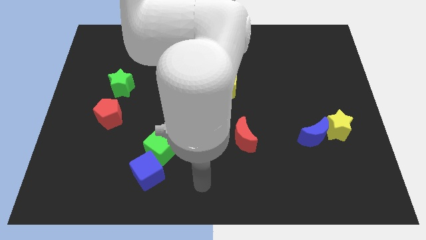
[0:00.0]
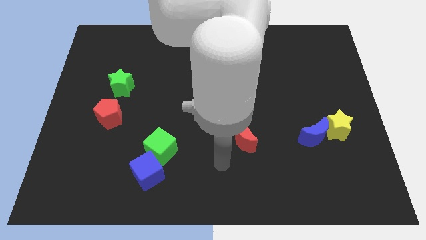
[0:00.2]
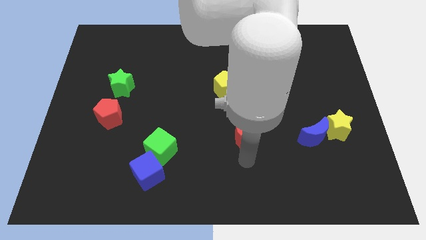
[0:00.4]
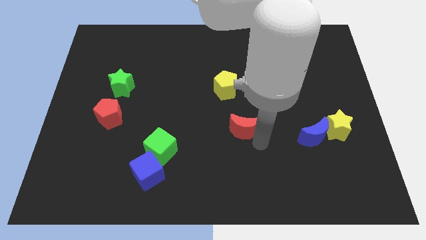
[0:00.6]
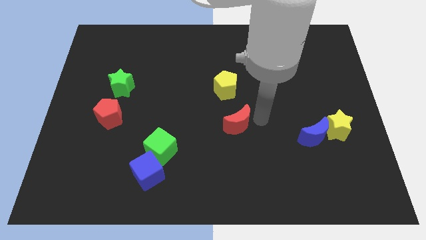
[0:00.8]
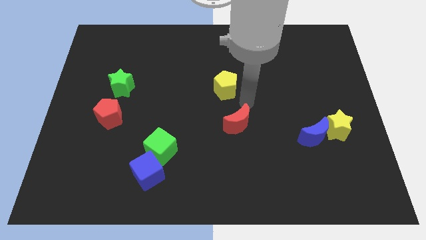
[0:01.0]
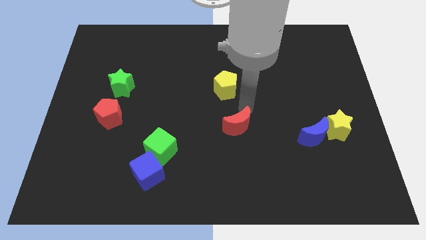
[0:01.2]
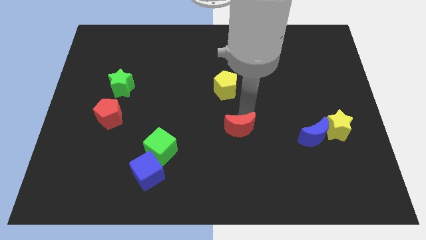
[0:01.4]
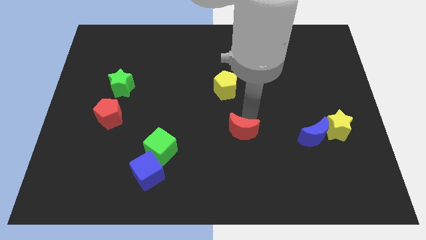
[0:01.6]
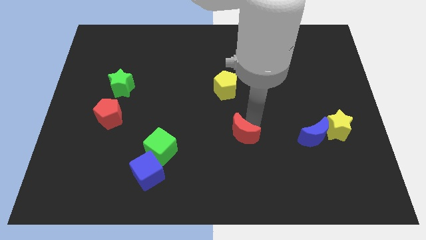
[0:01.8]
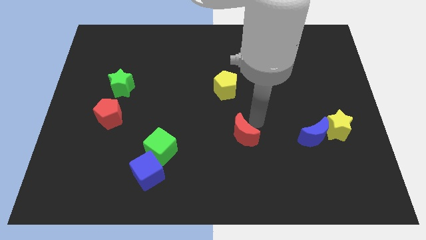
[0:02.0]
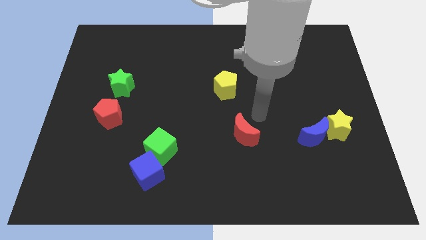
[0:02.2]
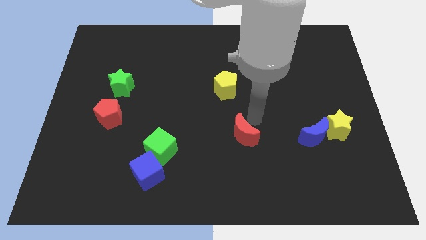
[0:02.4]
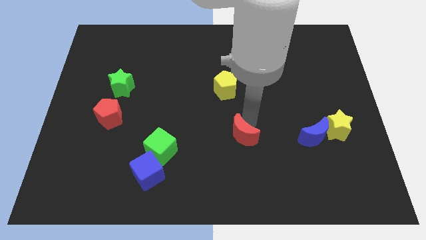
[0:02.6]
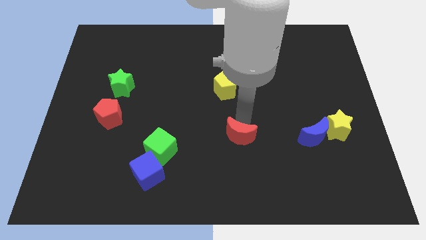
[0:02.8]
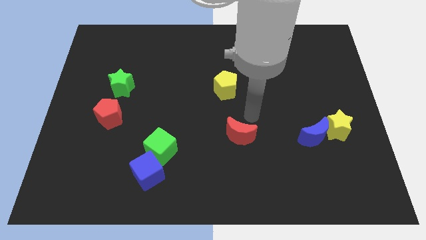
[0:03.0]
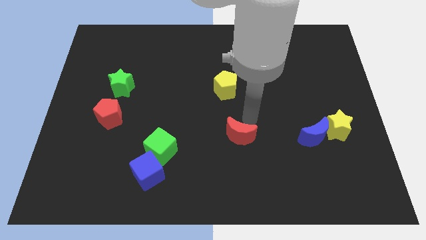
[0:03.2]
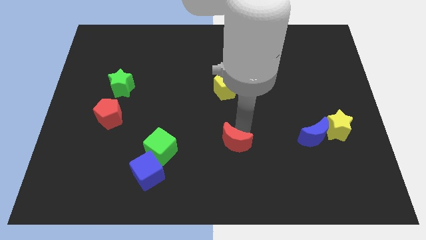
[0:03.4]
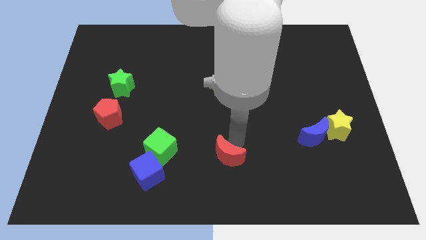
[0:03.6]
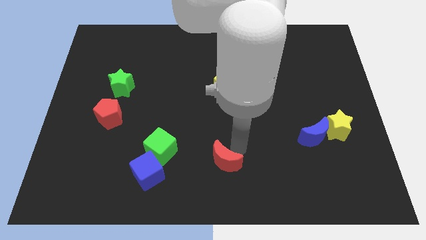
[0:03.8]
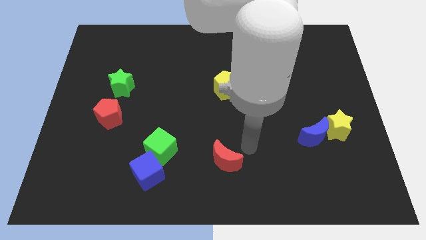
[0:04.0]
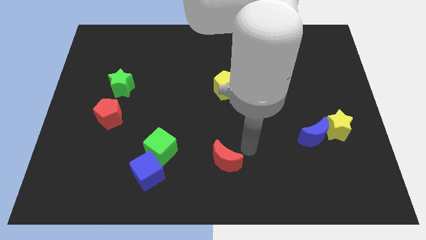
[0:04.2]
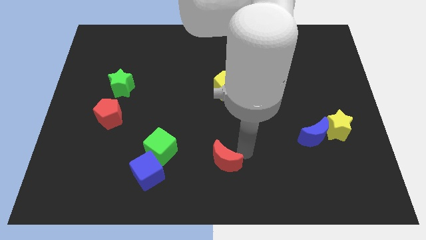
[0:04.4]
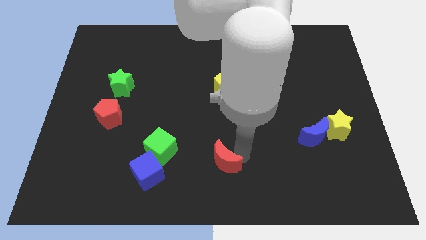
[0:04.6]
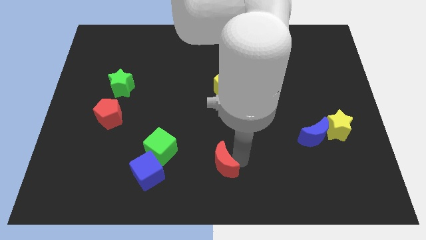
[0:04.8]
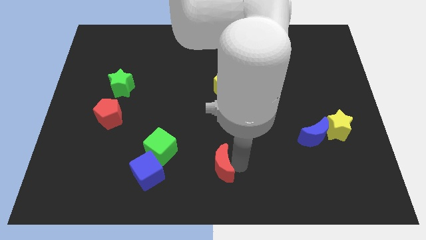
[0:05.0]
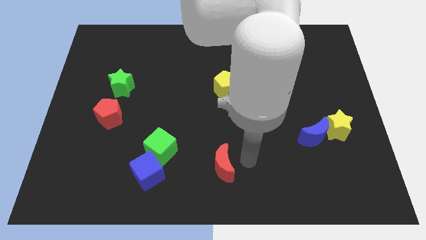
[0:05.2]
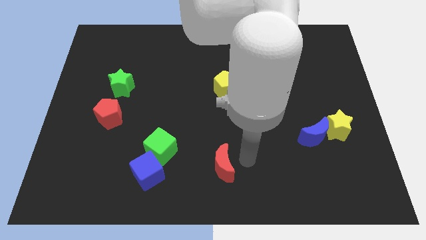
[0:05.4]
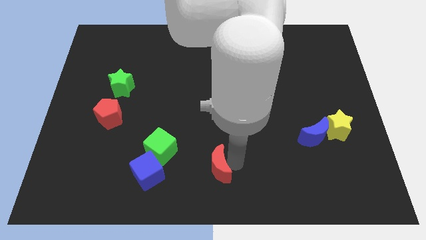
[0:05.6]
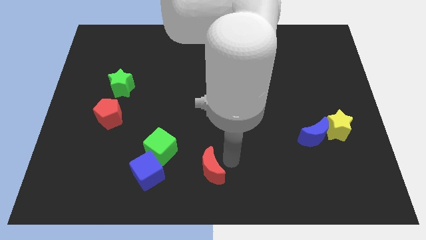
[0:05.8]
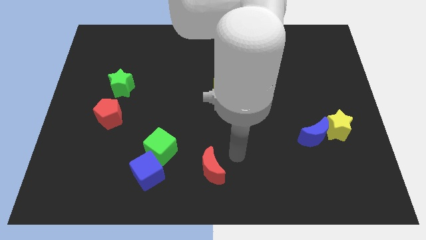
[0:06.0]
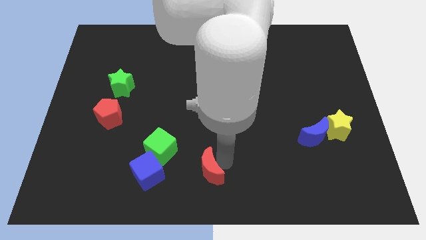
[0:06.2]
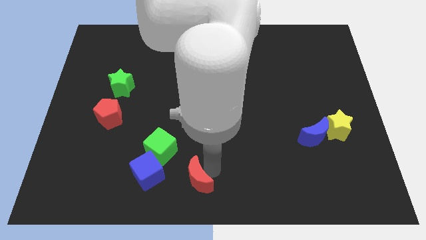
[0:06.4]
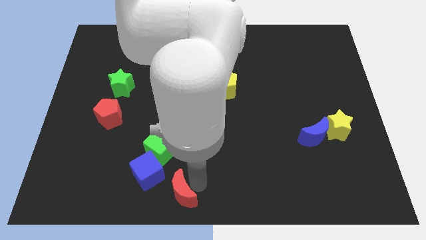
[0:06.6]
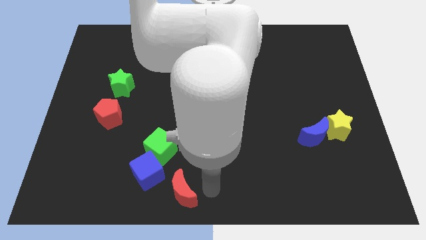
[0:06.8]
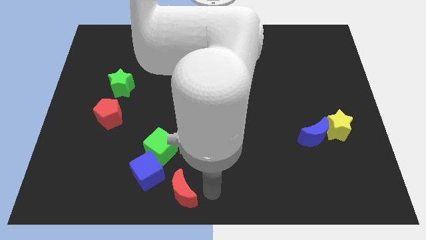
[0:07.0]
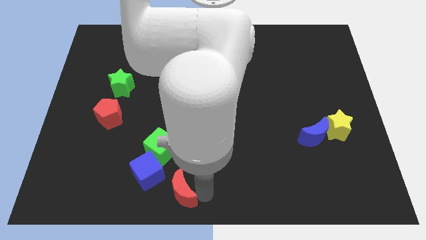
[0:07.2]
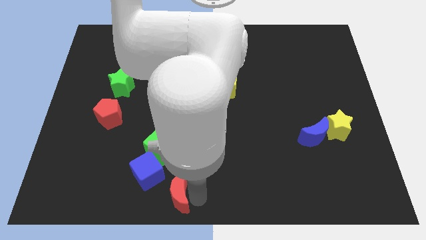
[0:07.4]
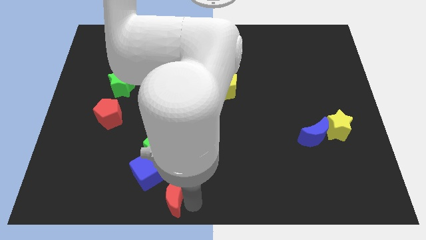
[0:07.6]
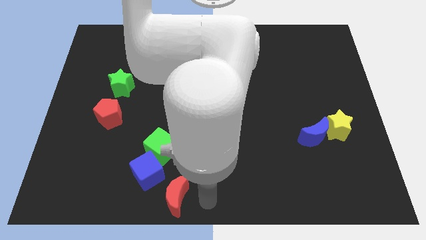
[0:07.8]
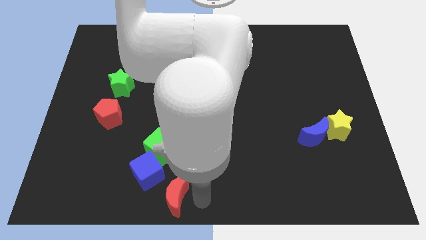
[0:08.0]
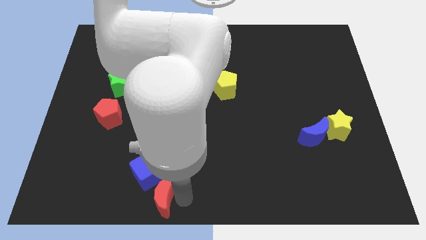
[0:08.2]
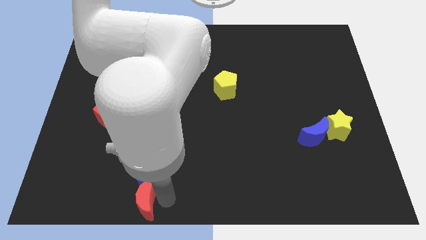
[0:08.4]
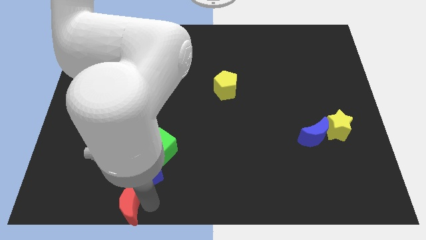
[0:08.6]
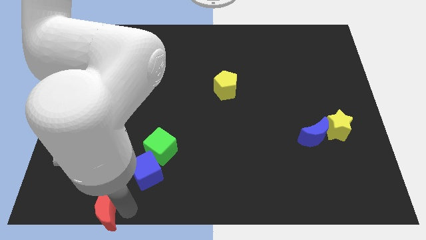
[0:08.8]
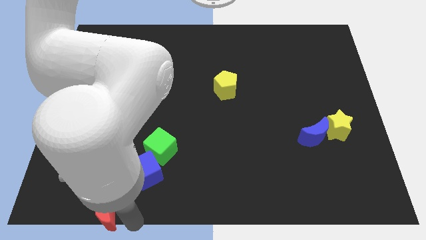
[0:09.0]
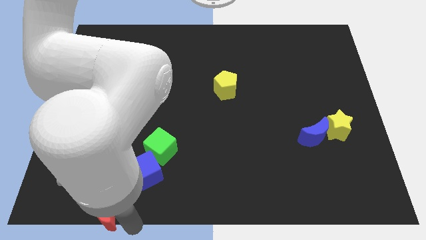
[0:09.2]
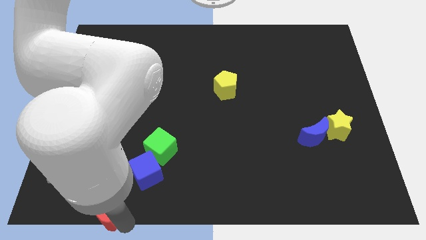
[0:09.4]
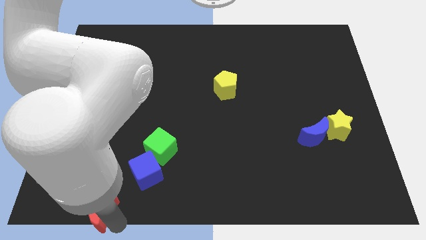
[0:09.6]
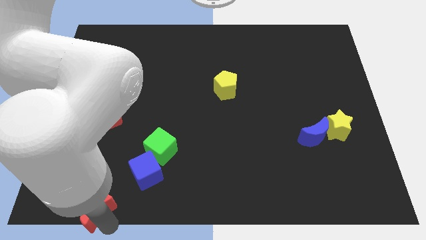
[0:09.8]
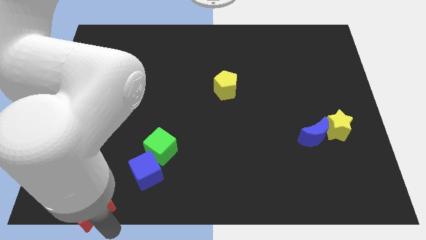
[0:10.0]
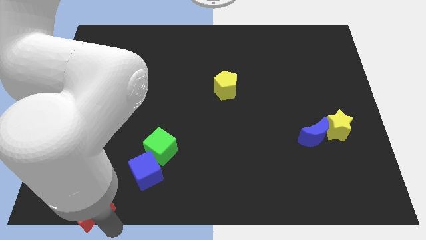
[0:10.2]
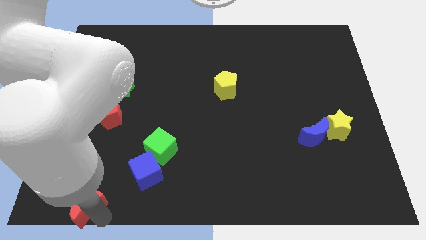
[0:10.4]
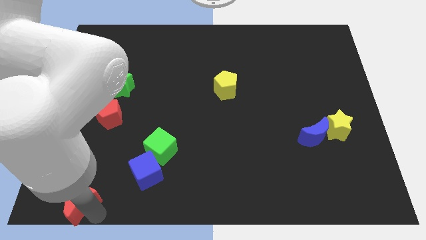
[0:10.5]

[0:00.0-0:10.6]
move the red moon to the bottom left of the board

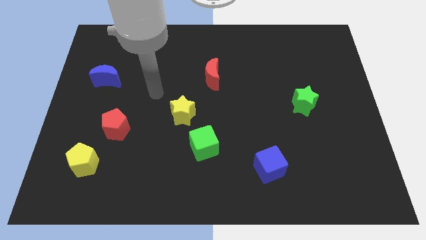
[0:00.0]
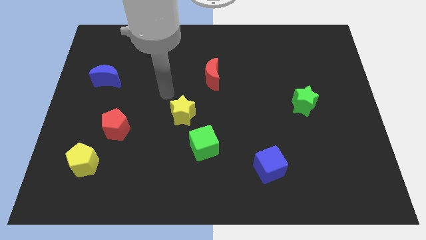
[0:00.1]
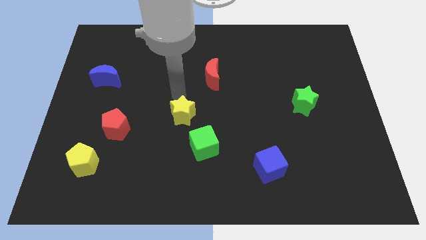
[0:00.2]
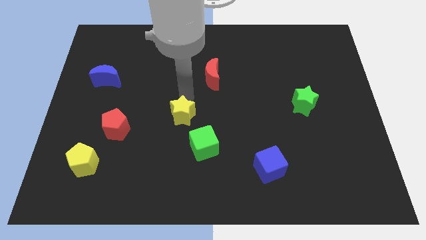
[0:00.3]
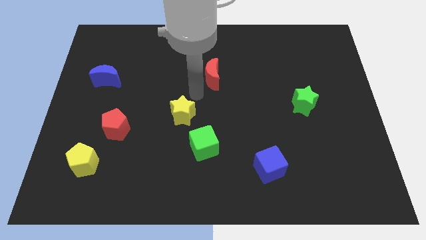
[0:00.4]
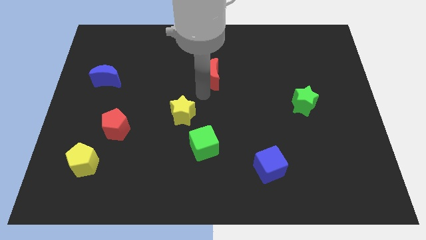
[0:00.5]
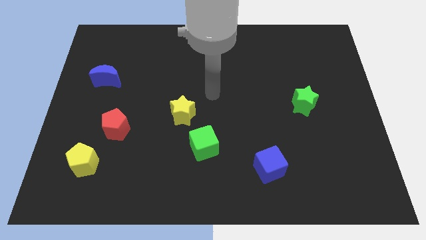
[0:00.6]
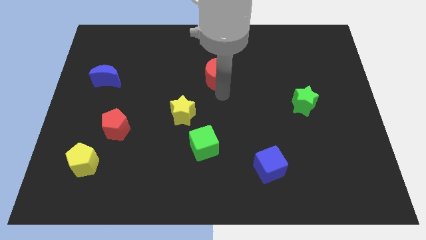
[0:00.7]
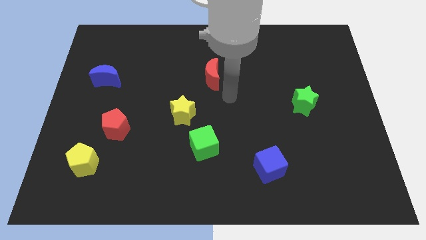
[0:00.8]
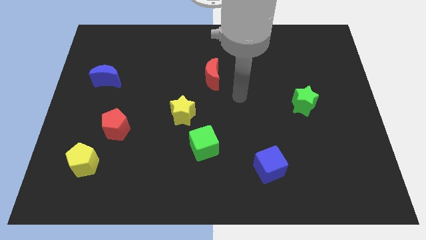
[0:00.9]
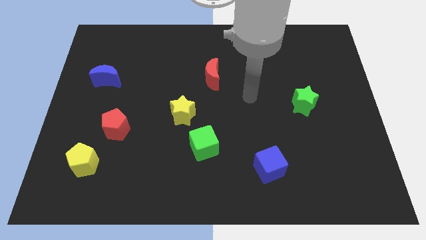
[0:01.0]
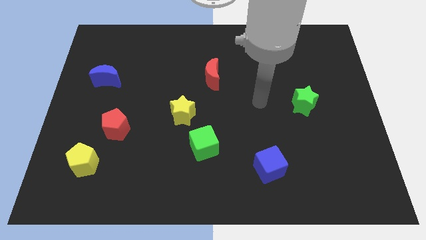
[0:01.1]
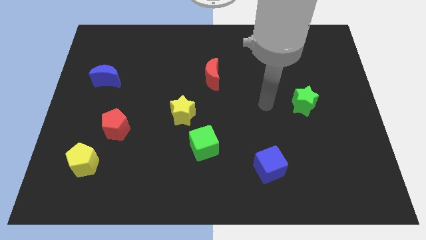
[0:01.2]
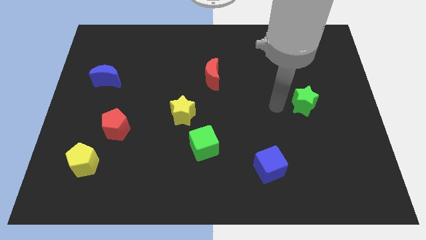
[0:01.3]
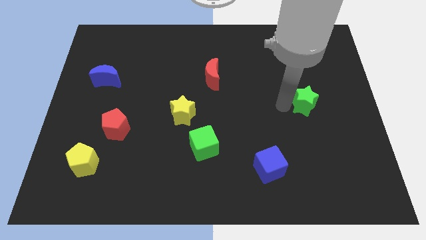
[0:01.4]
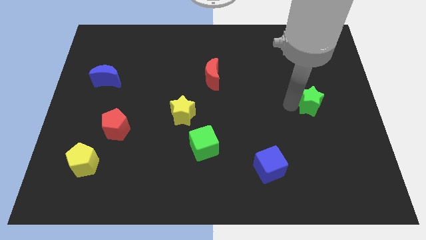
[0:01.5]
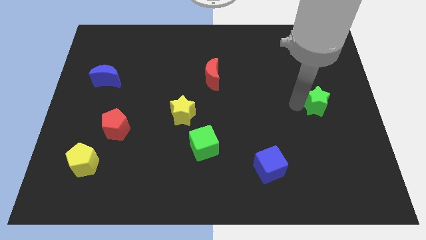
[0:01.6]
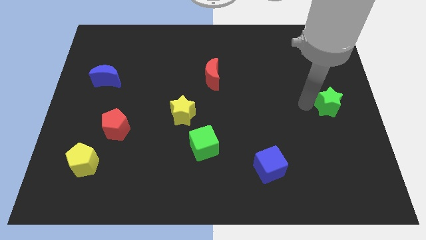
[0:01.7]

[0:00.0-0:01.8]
slide the green star to the center right
